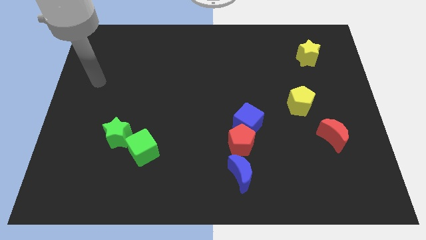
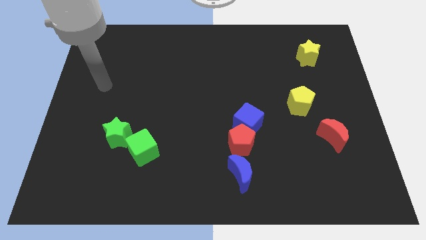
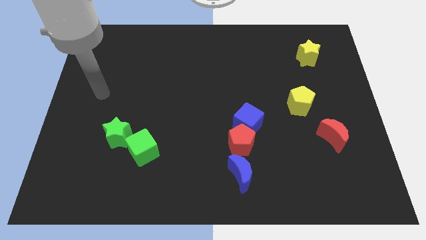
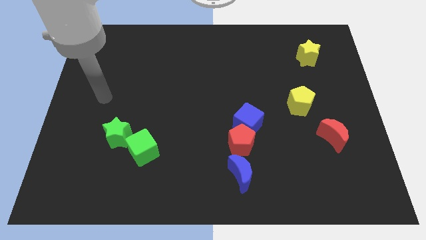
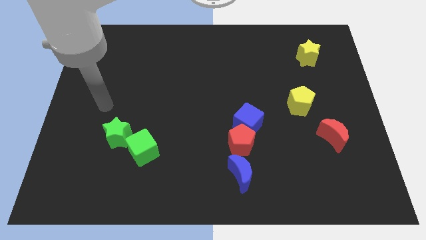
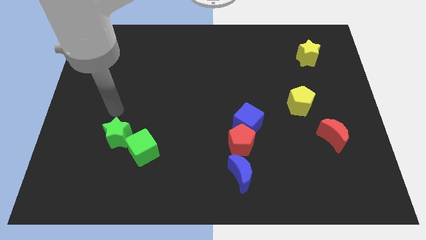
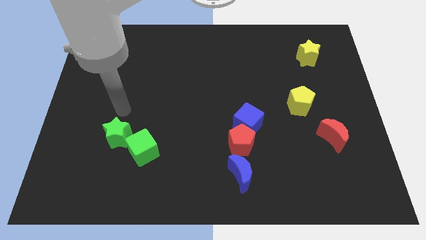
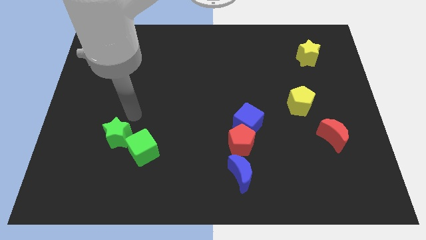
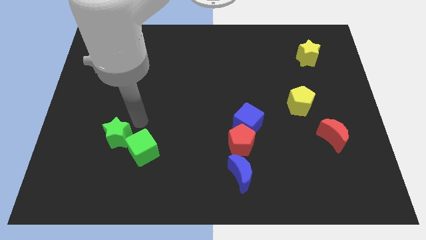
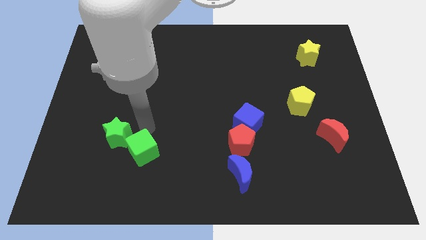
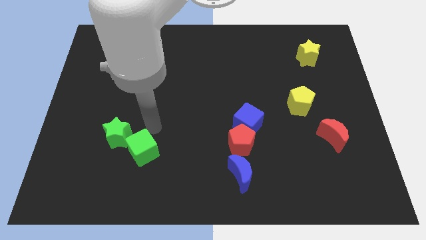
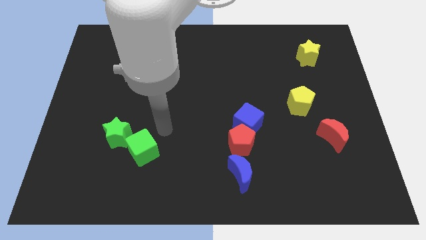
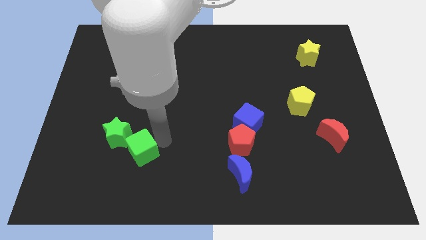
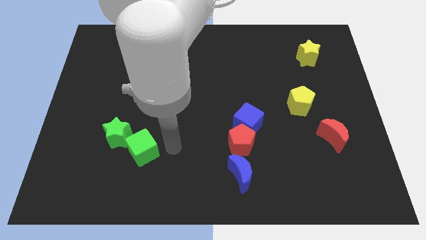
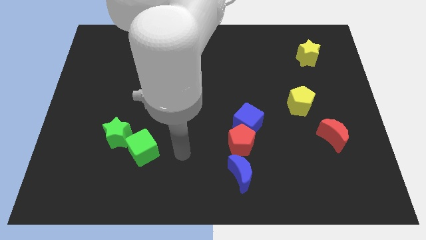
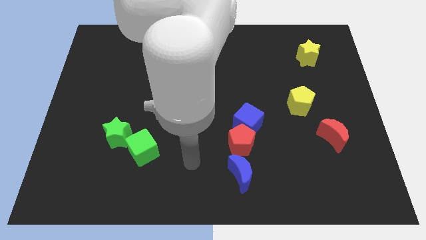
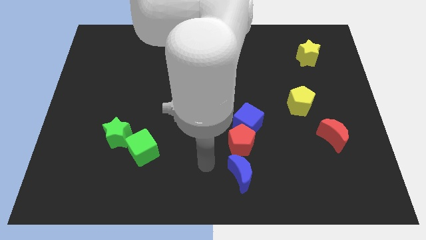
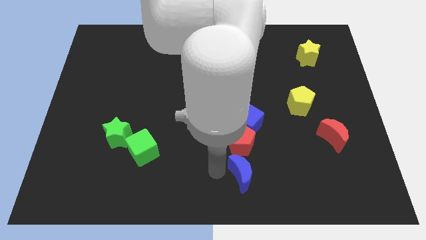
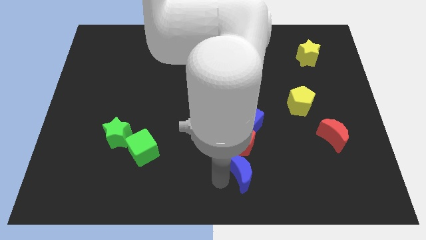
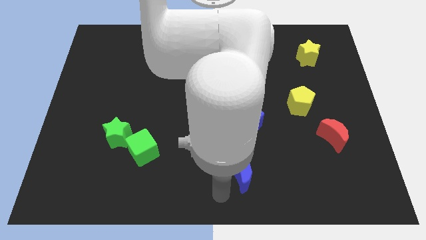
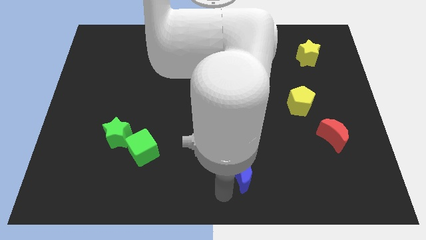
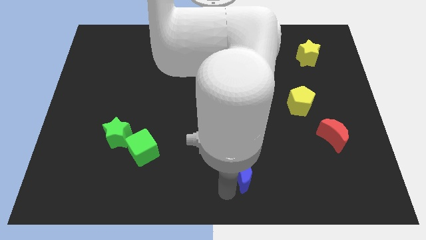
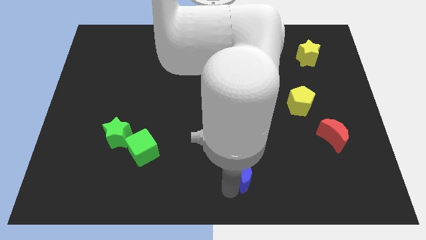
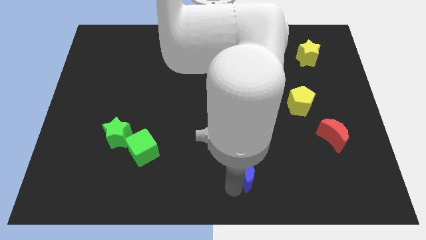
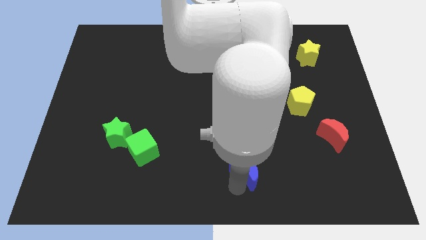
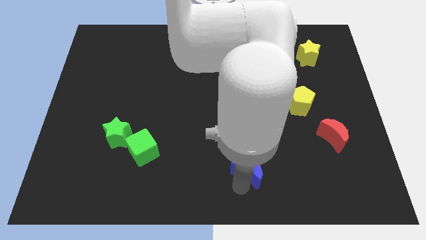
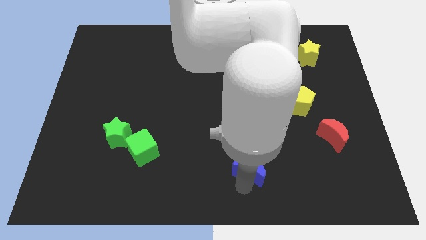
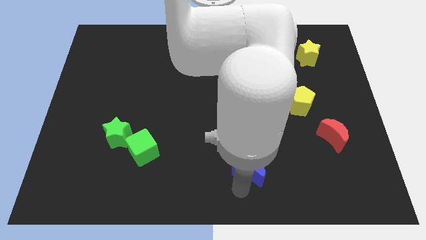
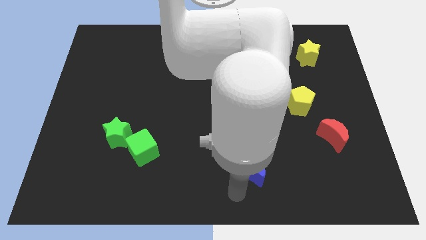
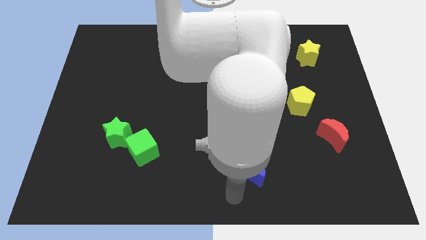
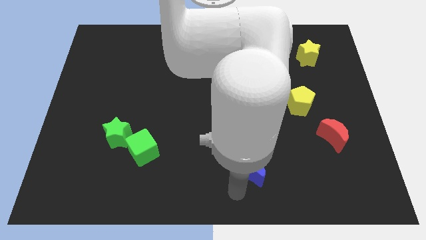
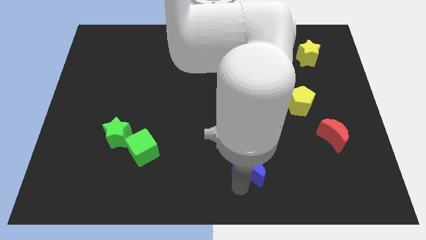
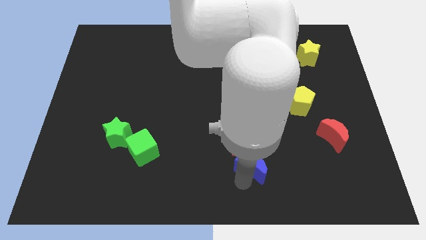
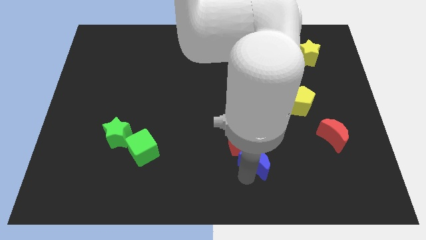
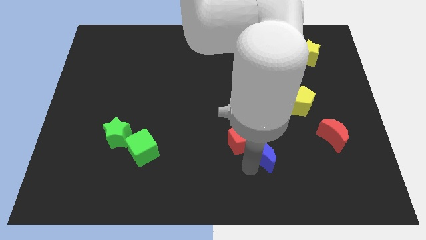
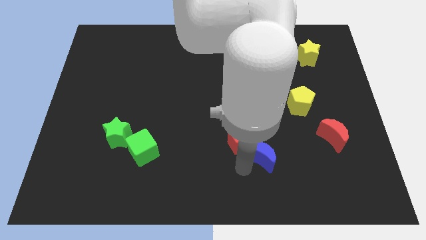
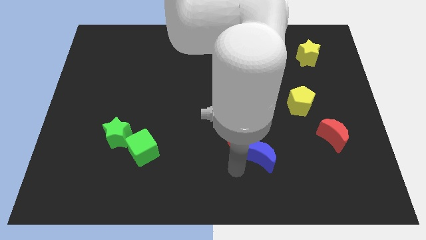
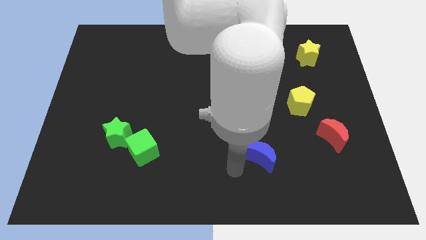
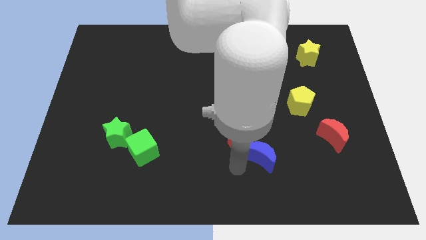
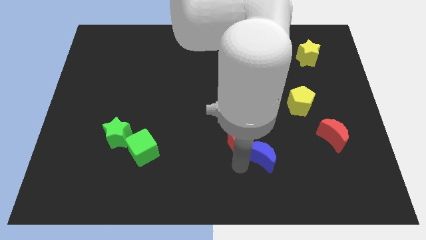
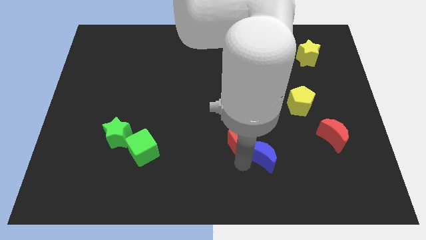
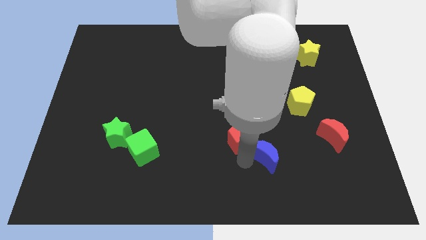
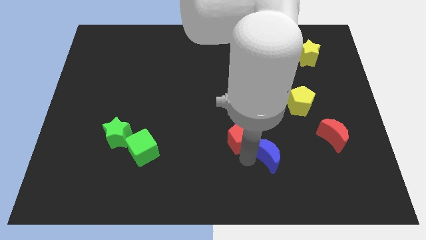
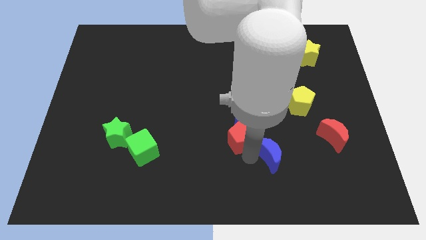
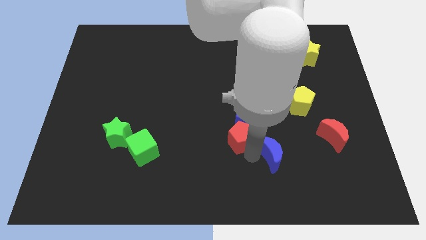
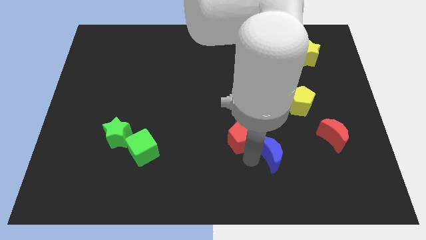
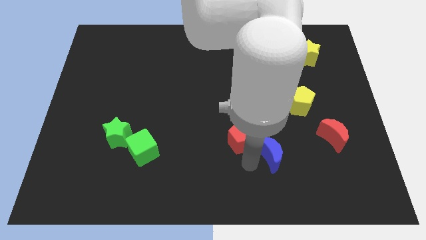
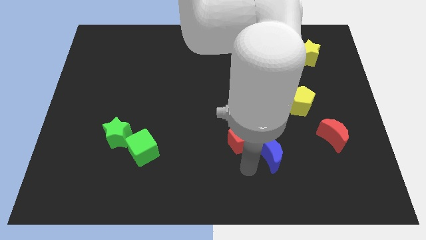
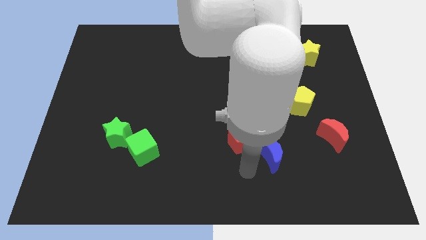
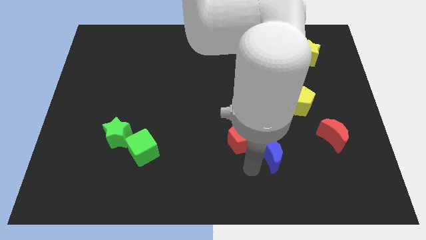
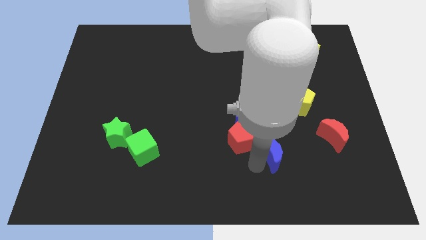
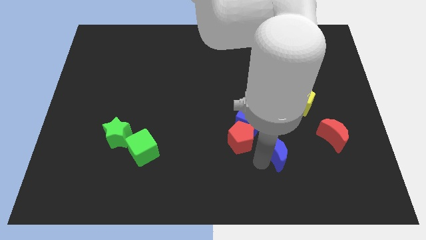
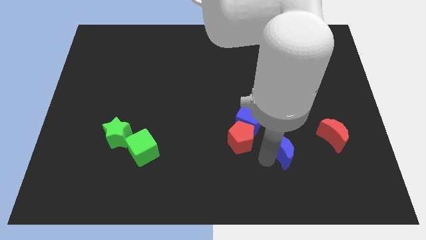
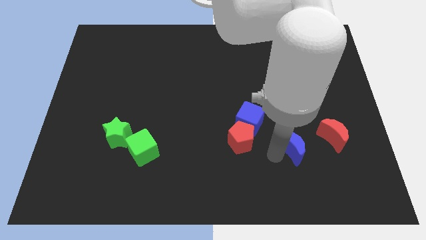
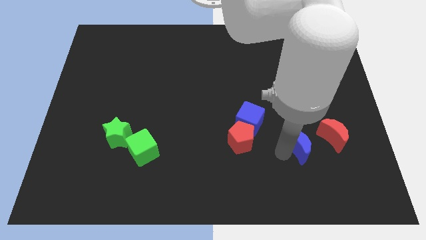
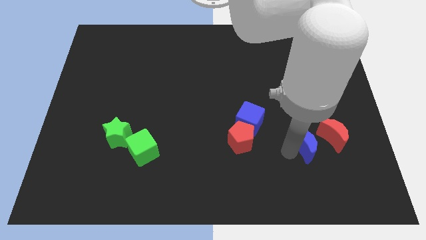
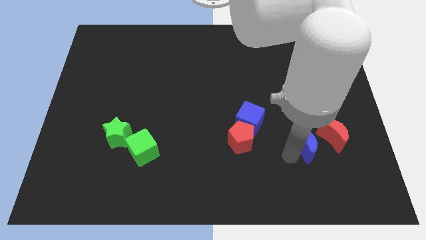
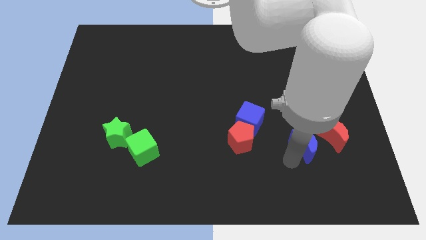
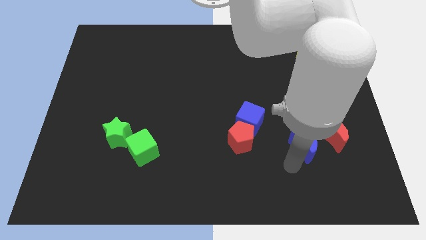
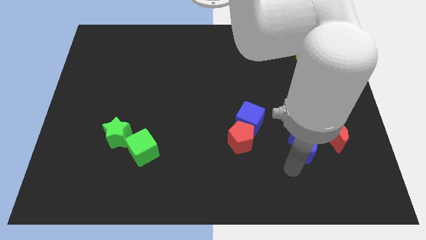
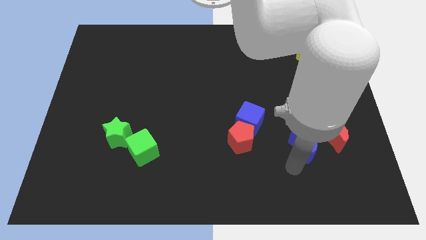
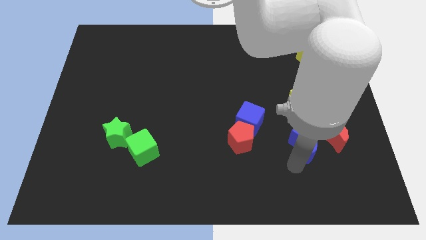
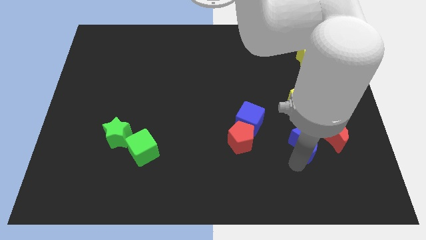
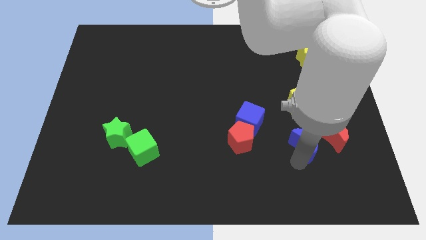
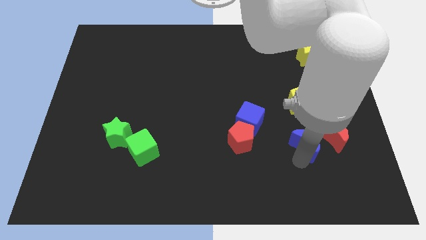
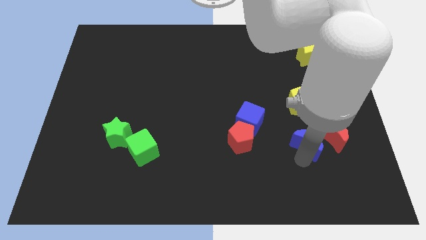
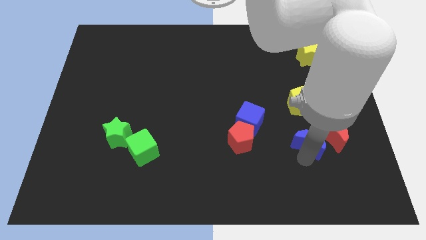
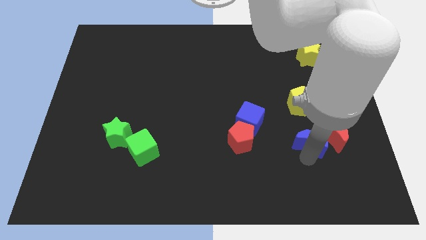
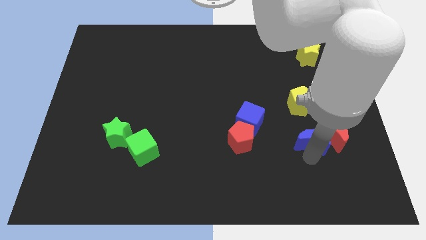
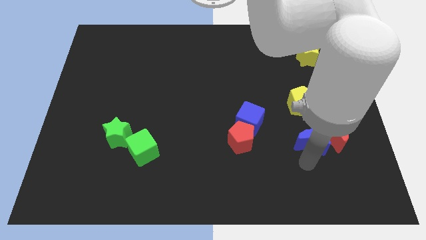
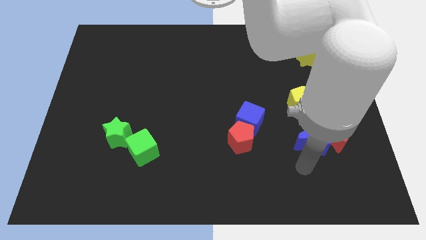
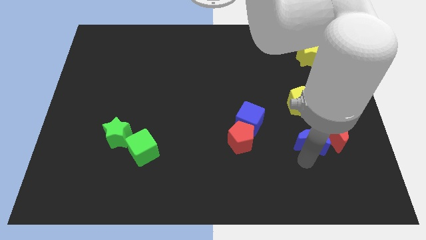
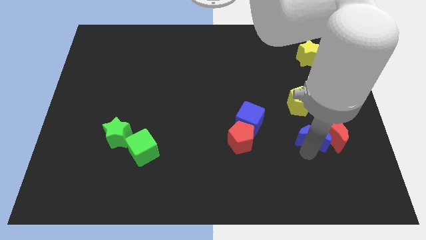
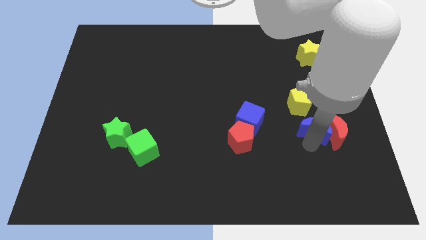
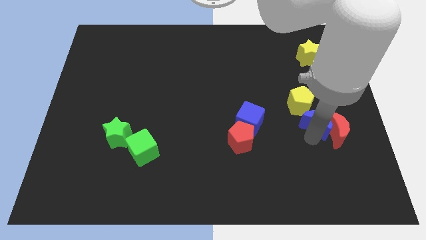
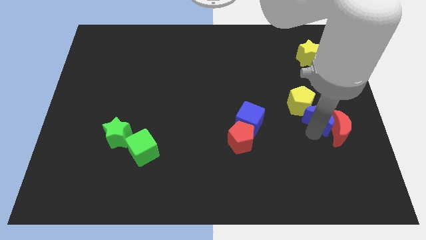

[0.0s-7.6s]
slide the blue moon to the top side of the red moon
